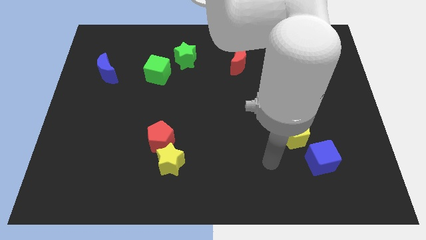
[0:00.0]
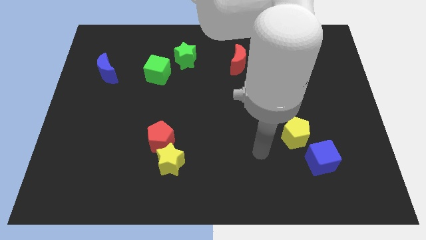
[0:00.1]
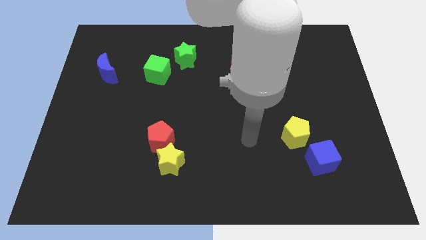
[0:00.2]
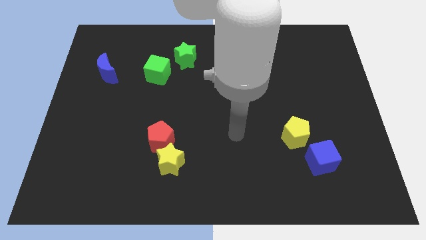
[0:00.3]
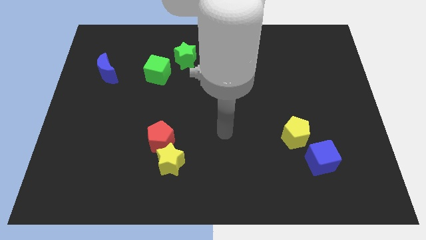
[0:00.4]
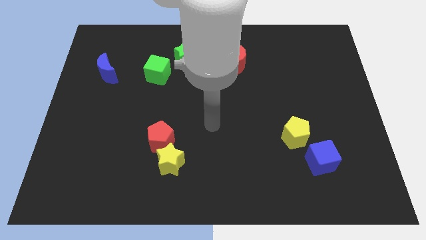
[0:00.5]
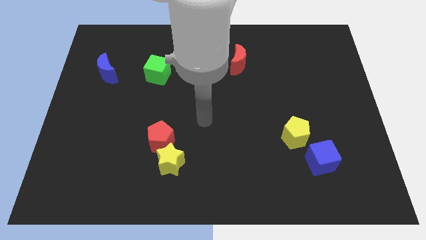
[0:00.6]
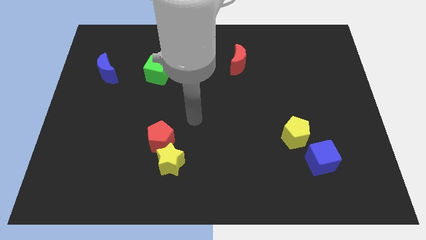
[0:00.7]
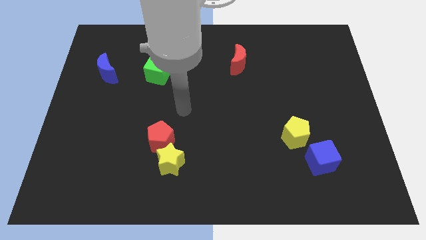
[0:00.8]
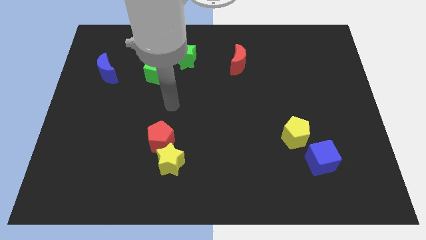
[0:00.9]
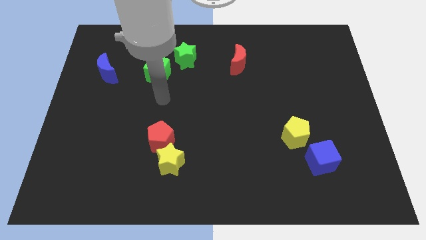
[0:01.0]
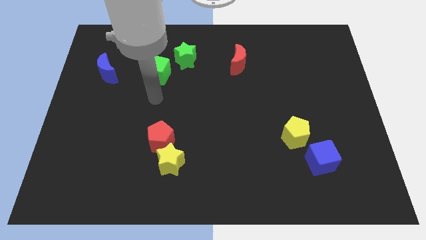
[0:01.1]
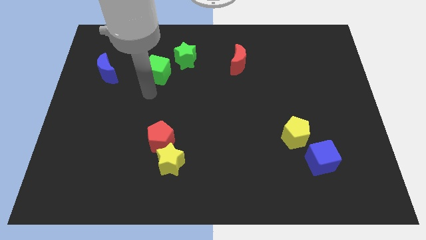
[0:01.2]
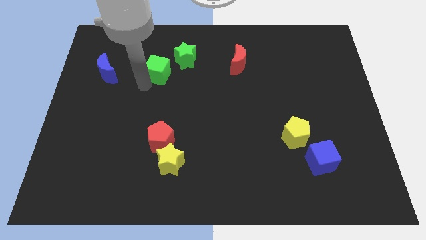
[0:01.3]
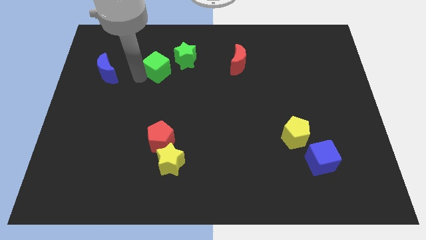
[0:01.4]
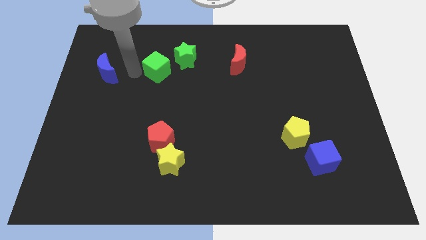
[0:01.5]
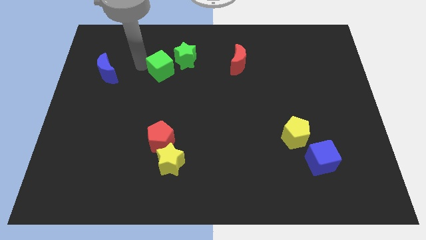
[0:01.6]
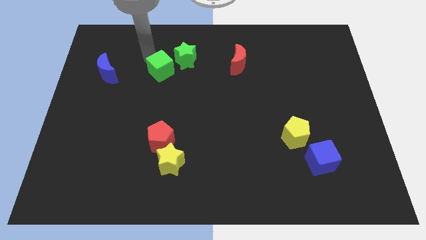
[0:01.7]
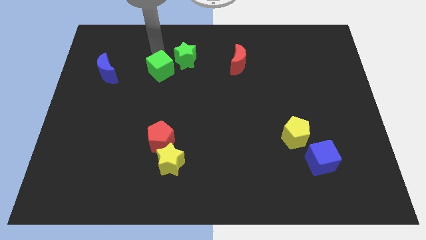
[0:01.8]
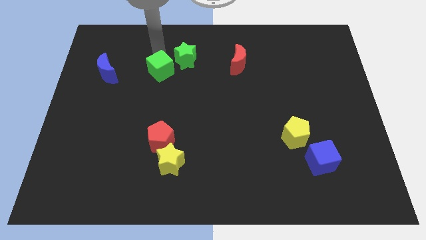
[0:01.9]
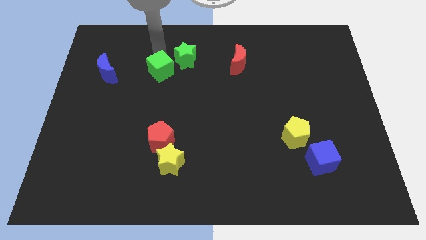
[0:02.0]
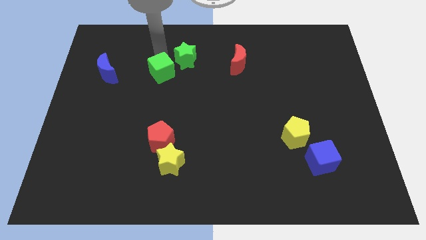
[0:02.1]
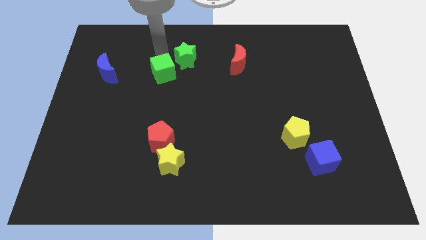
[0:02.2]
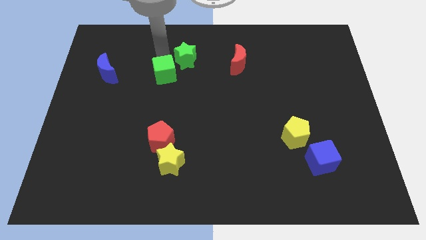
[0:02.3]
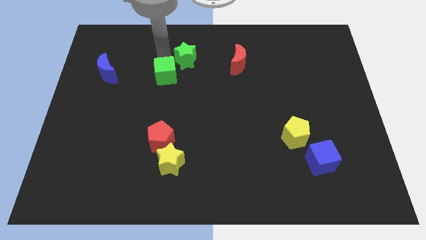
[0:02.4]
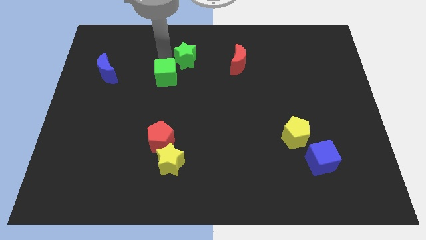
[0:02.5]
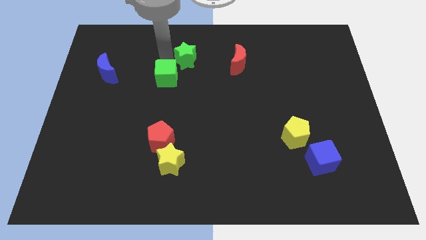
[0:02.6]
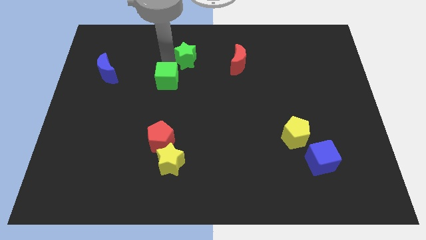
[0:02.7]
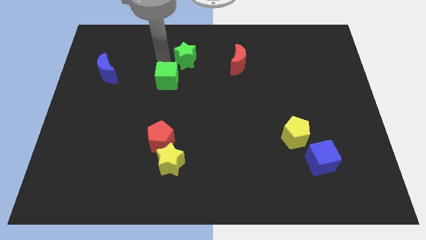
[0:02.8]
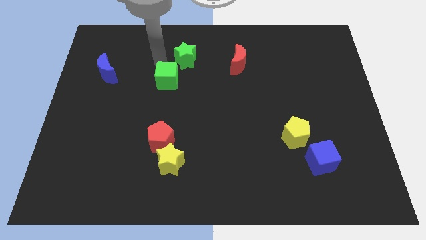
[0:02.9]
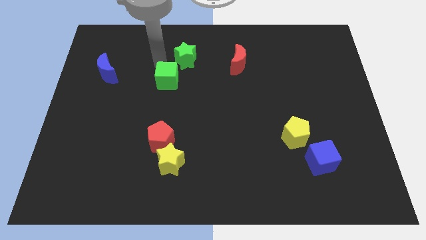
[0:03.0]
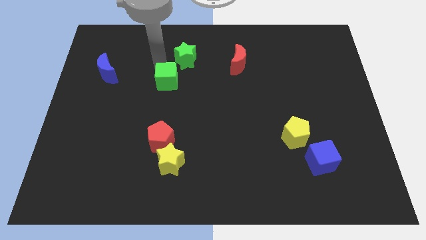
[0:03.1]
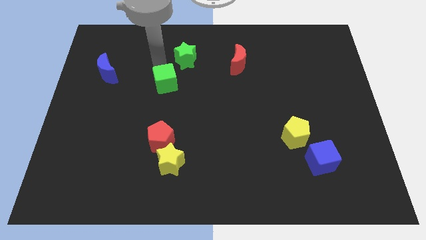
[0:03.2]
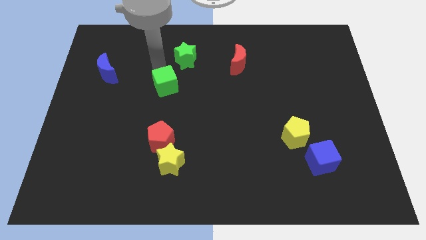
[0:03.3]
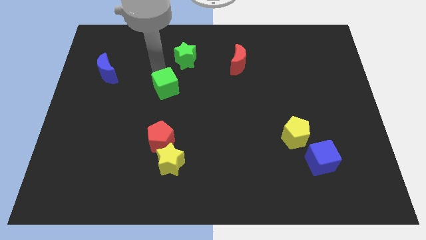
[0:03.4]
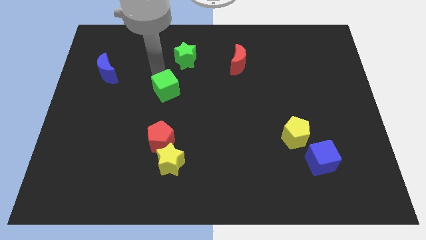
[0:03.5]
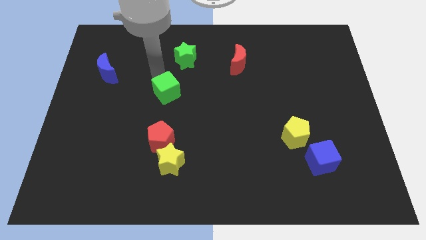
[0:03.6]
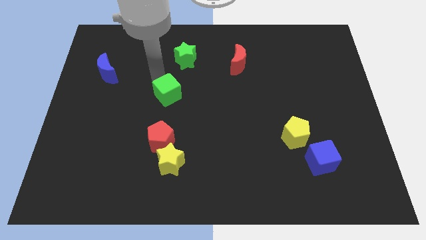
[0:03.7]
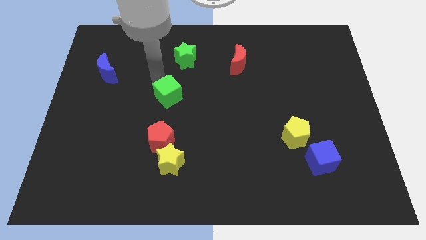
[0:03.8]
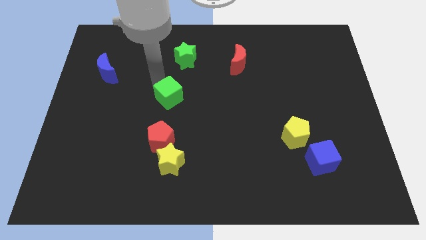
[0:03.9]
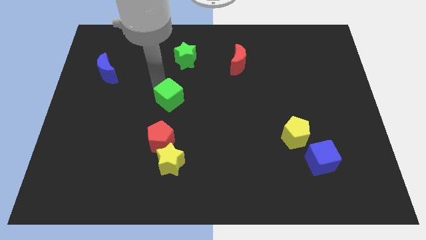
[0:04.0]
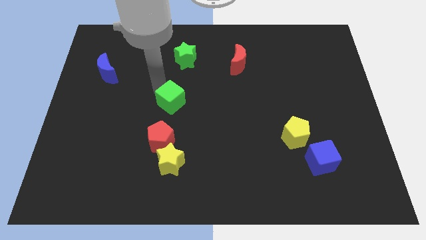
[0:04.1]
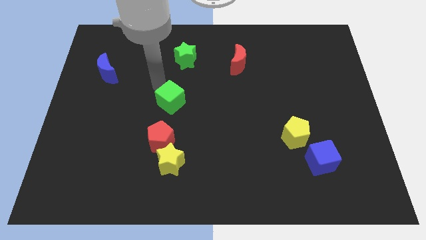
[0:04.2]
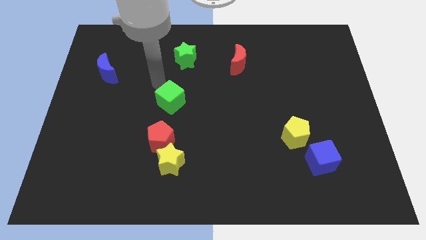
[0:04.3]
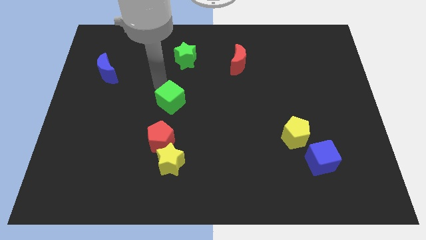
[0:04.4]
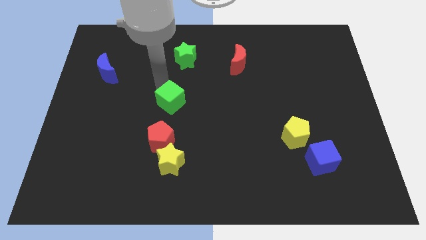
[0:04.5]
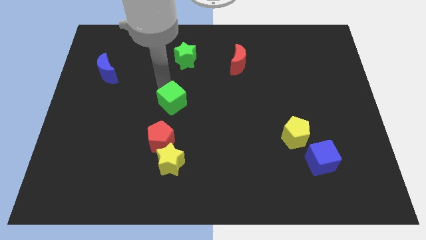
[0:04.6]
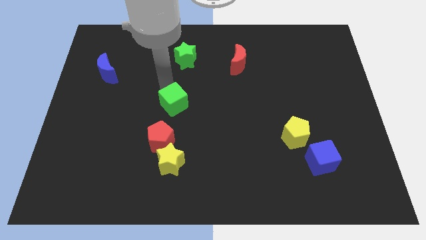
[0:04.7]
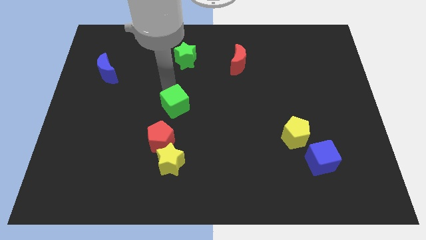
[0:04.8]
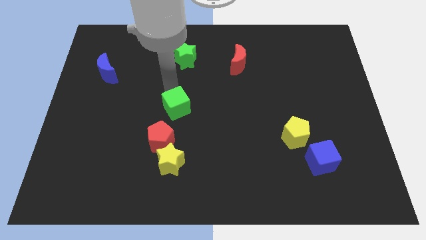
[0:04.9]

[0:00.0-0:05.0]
move the green cube to the top right of the red pentagon

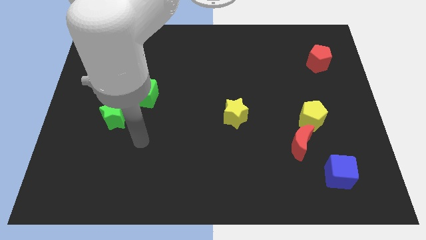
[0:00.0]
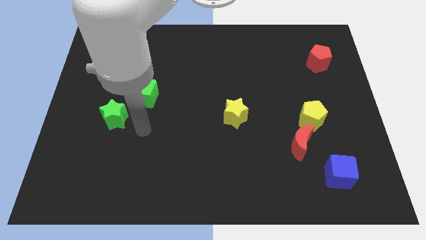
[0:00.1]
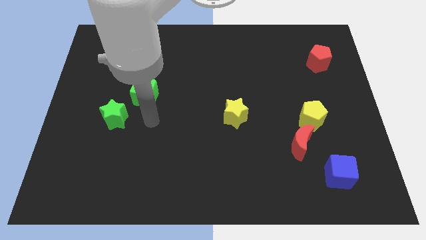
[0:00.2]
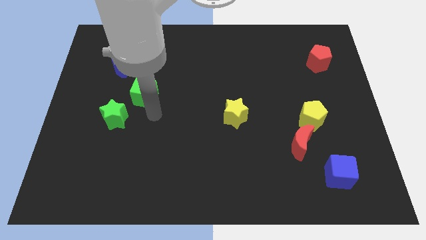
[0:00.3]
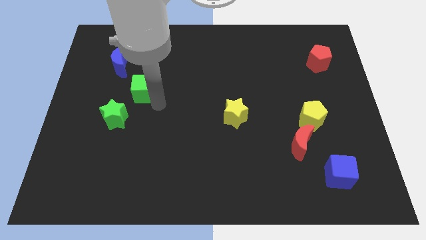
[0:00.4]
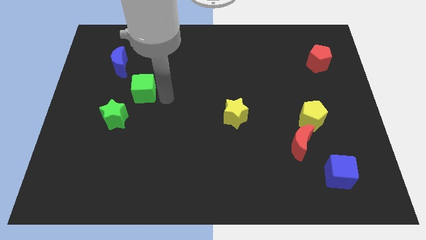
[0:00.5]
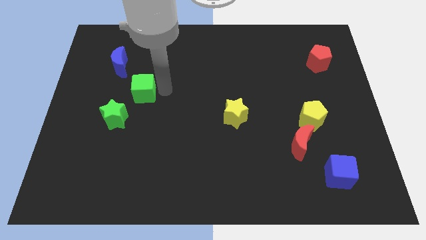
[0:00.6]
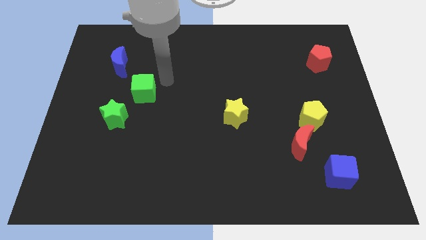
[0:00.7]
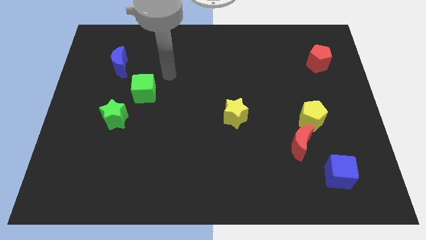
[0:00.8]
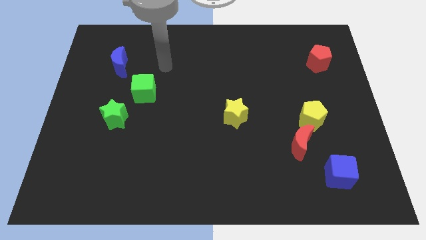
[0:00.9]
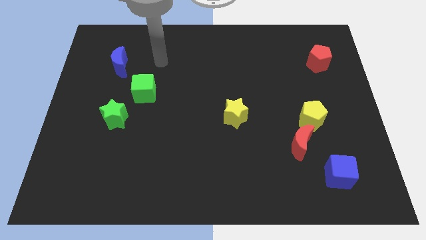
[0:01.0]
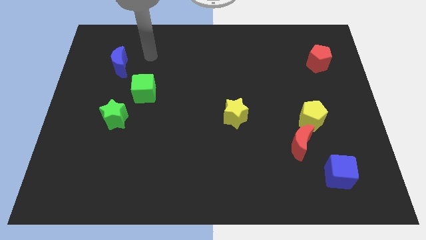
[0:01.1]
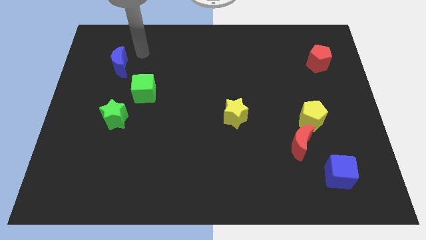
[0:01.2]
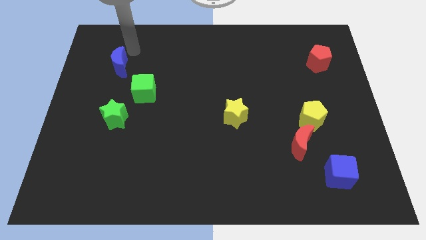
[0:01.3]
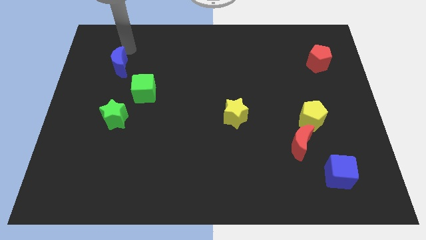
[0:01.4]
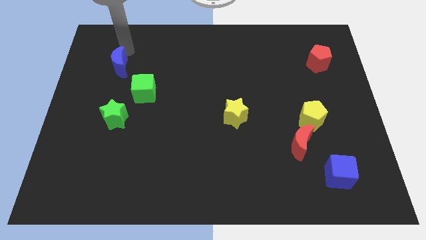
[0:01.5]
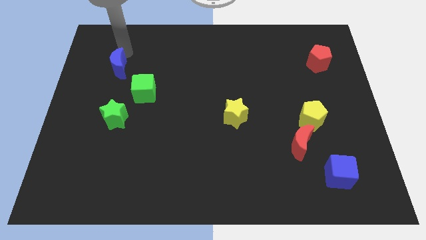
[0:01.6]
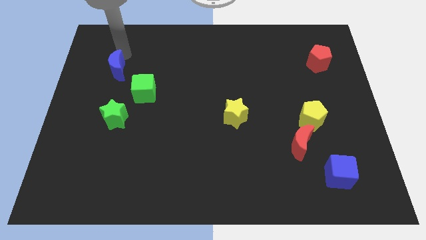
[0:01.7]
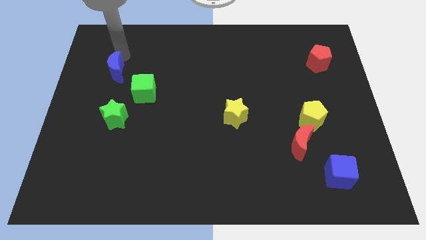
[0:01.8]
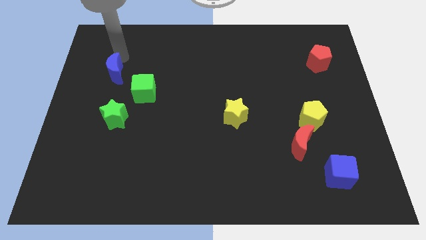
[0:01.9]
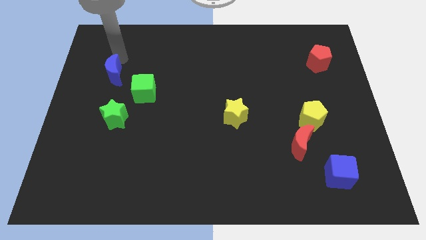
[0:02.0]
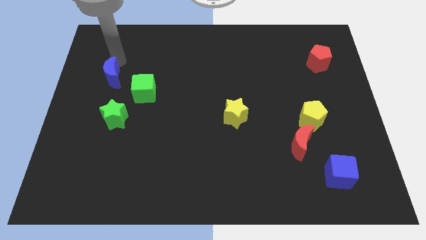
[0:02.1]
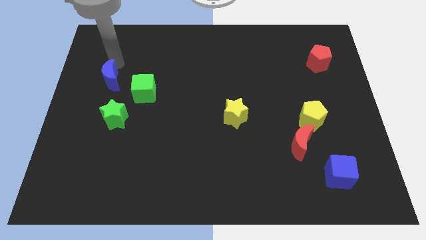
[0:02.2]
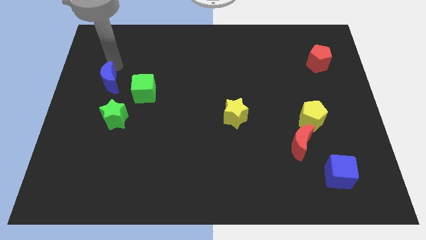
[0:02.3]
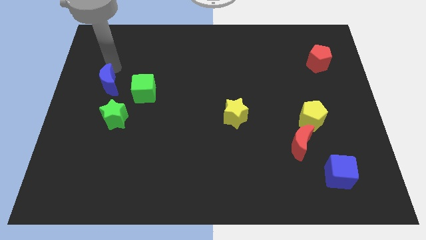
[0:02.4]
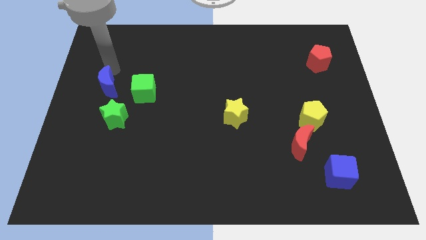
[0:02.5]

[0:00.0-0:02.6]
put the blue moon to the top left of the green star
